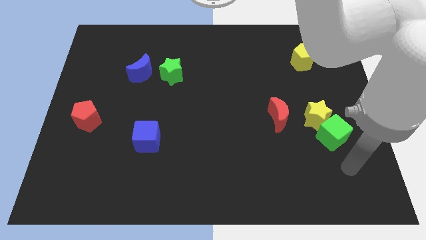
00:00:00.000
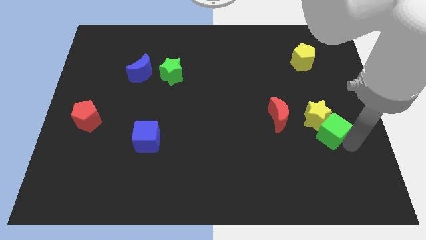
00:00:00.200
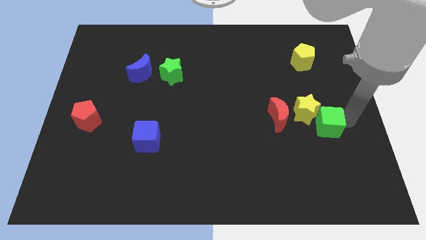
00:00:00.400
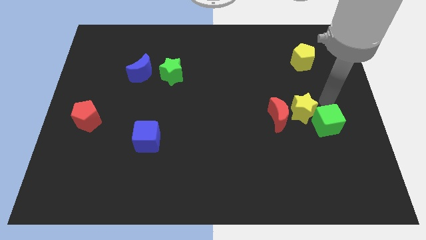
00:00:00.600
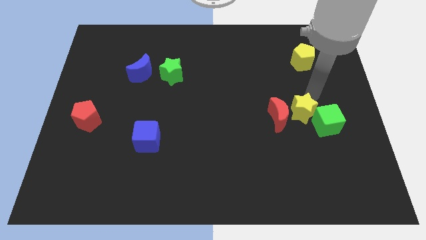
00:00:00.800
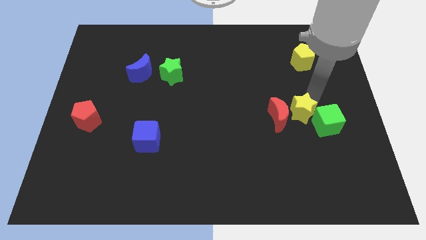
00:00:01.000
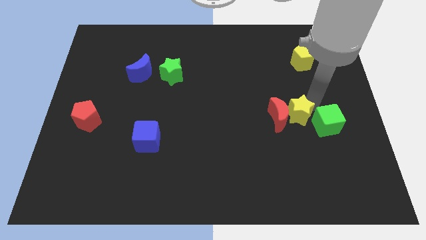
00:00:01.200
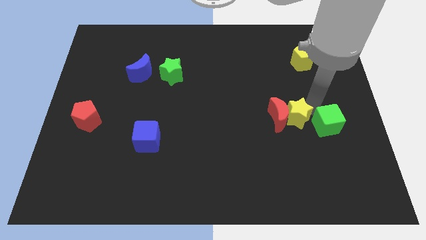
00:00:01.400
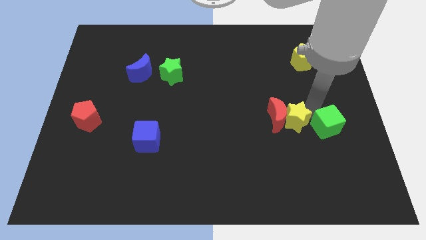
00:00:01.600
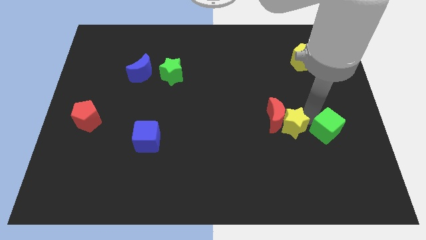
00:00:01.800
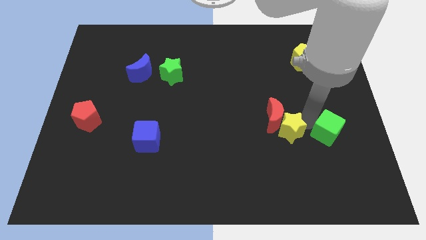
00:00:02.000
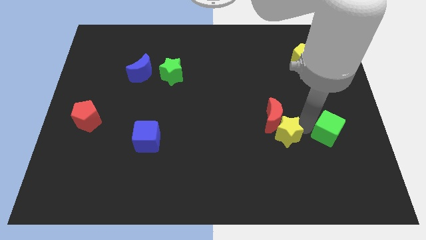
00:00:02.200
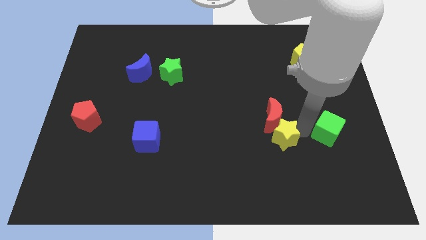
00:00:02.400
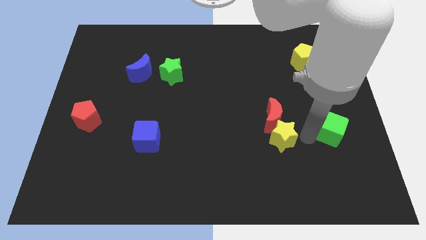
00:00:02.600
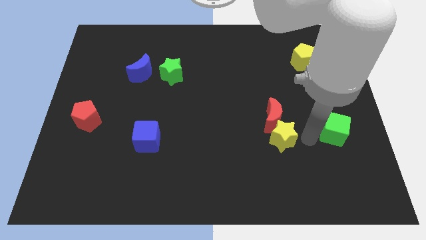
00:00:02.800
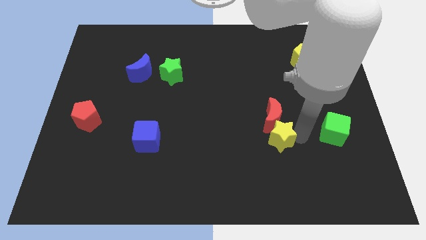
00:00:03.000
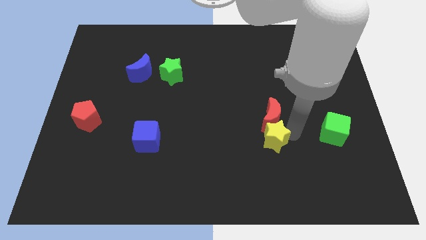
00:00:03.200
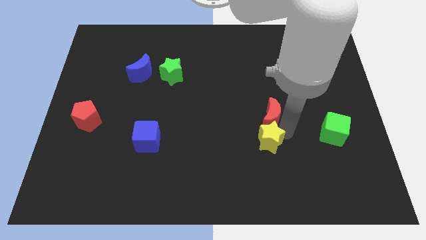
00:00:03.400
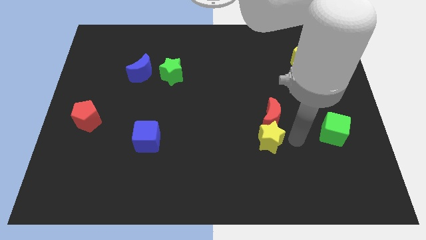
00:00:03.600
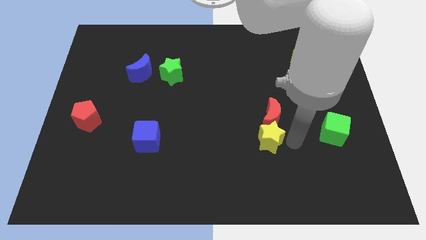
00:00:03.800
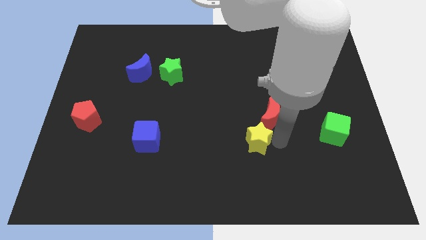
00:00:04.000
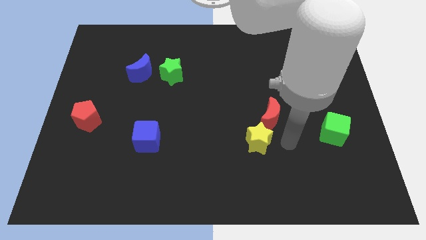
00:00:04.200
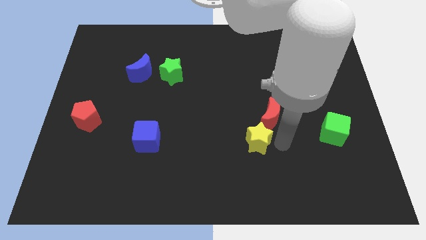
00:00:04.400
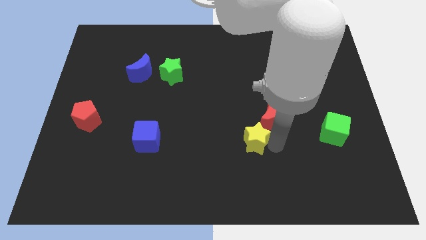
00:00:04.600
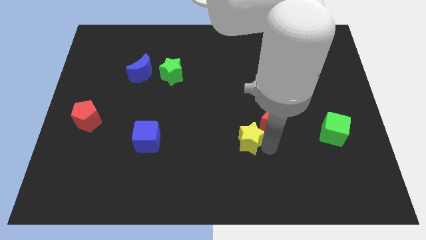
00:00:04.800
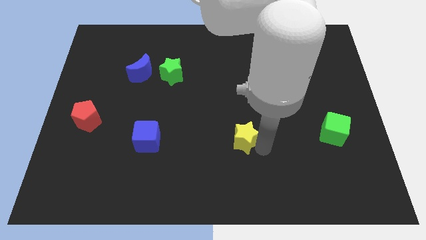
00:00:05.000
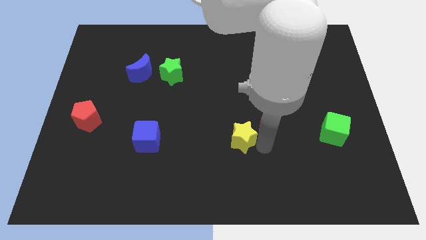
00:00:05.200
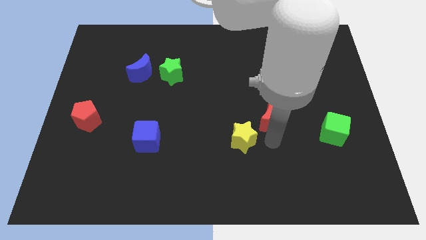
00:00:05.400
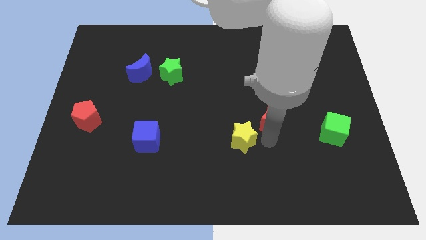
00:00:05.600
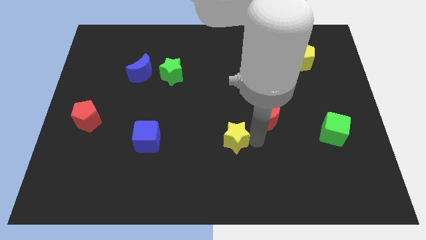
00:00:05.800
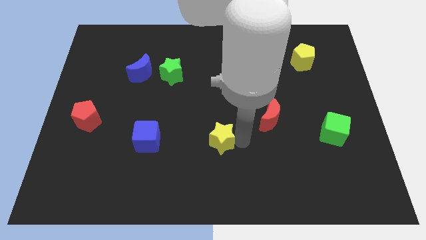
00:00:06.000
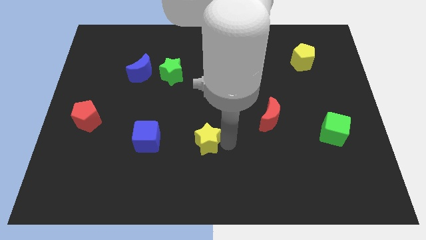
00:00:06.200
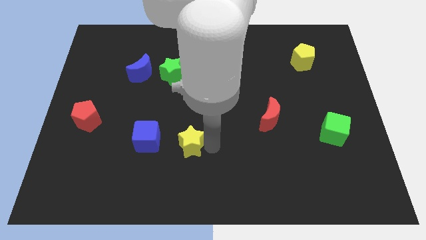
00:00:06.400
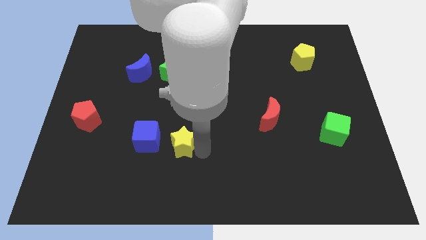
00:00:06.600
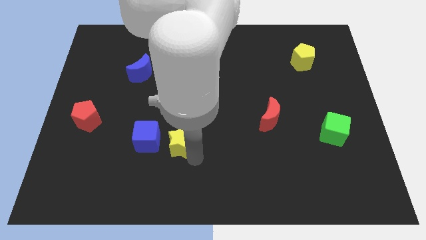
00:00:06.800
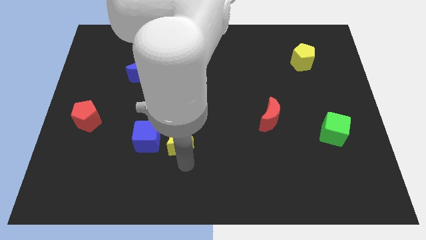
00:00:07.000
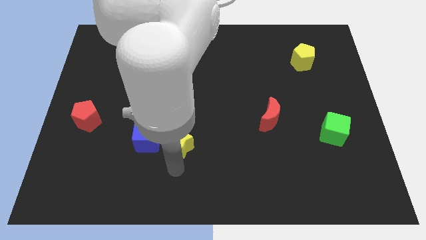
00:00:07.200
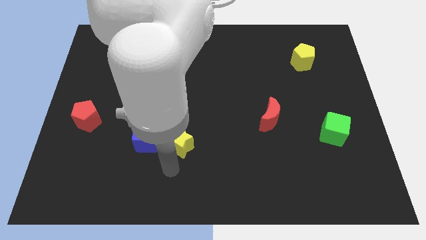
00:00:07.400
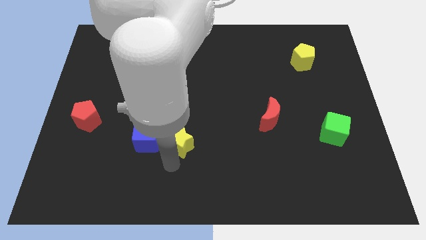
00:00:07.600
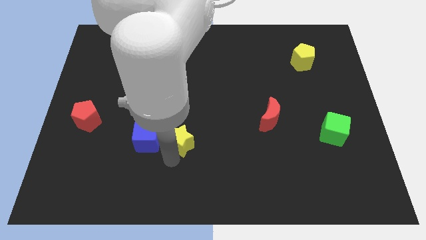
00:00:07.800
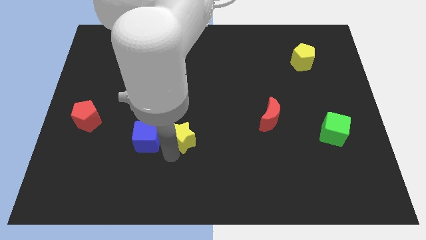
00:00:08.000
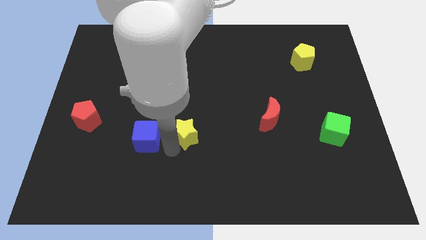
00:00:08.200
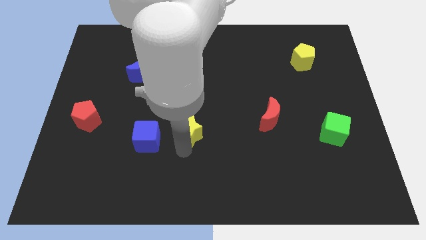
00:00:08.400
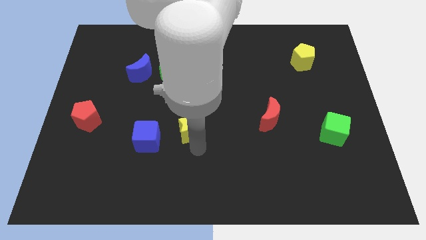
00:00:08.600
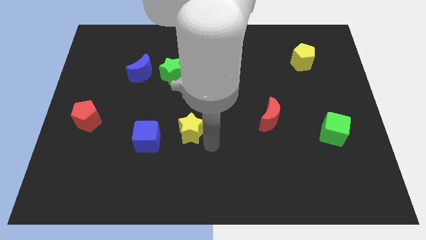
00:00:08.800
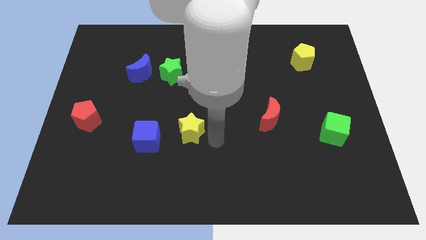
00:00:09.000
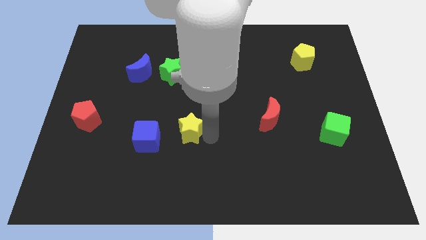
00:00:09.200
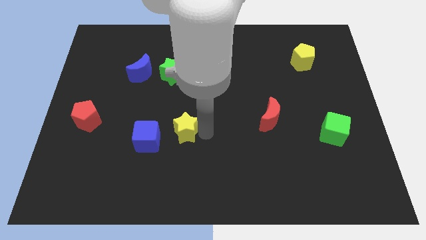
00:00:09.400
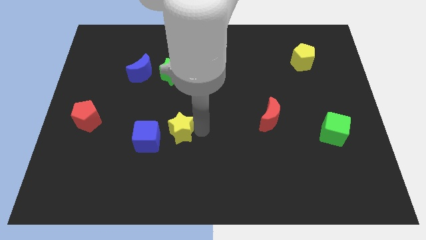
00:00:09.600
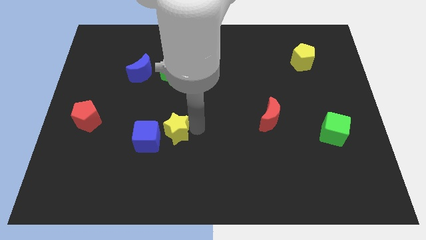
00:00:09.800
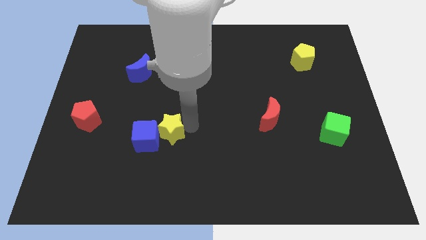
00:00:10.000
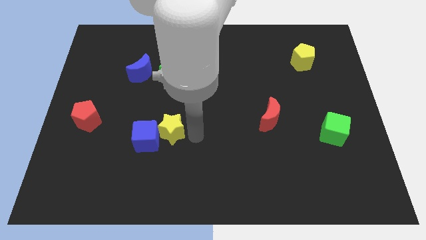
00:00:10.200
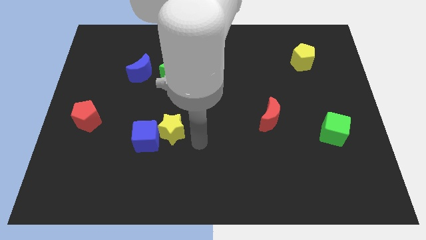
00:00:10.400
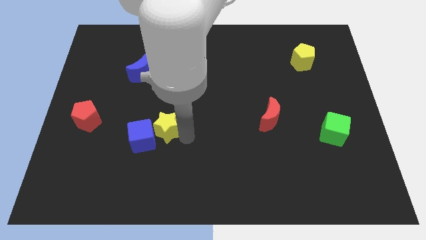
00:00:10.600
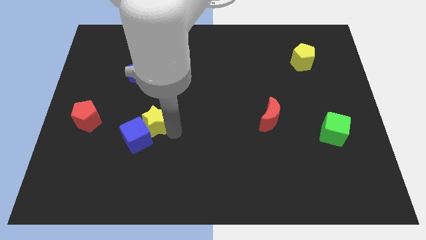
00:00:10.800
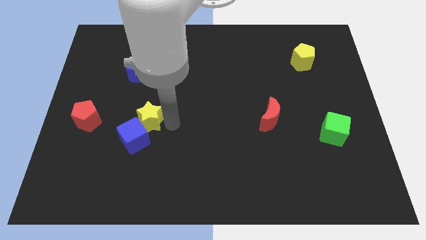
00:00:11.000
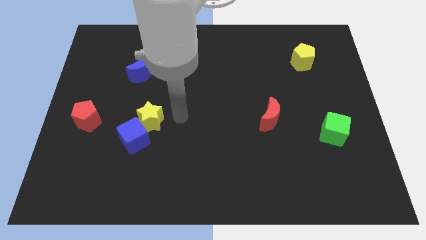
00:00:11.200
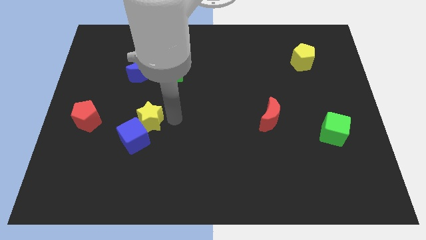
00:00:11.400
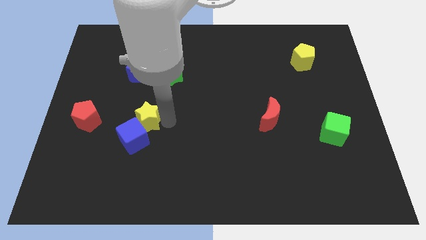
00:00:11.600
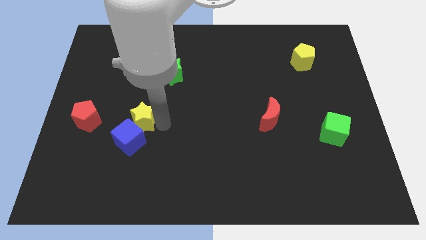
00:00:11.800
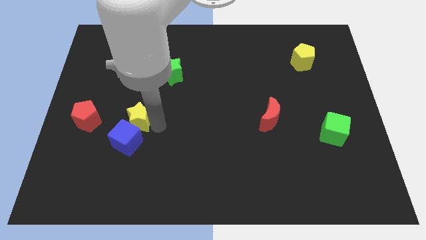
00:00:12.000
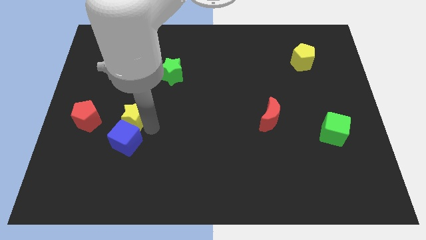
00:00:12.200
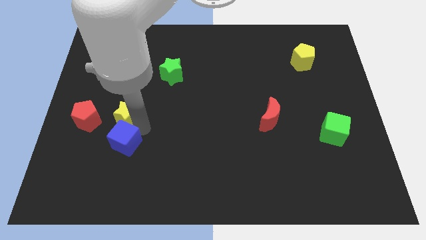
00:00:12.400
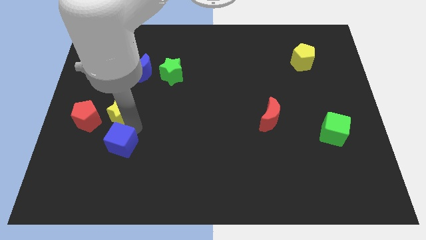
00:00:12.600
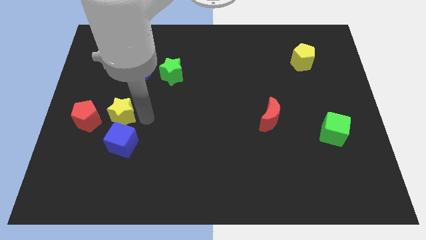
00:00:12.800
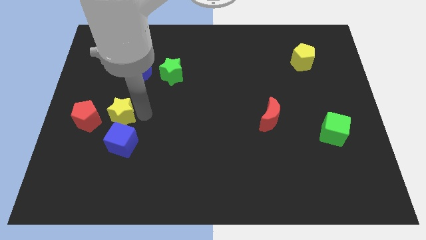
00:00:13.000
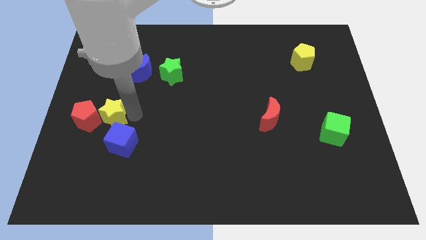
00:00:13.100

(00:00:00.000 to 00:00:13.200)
move the yellow star close to the red pentagon

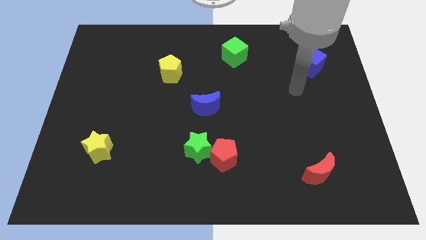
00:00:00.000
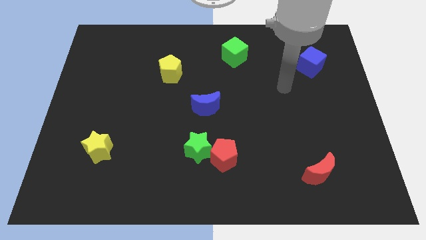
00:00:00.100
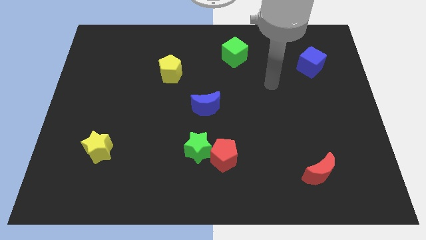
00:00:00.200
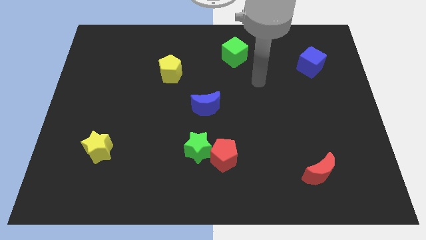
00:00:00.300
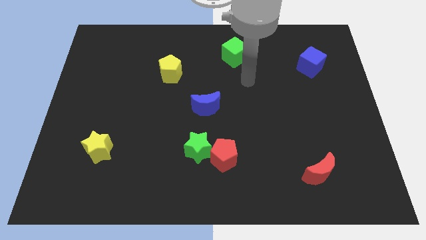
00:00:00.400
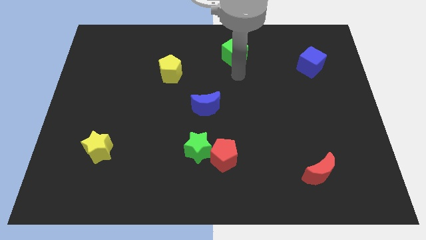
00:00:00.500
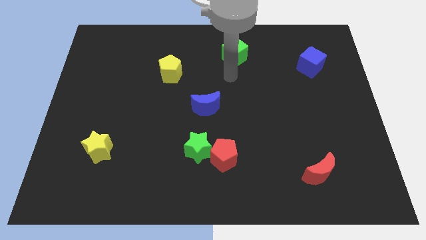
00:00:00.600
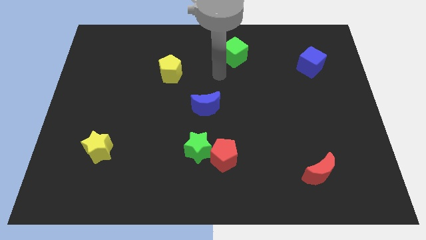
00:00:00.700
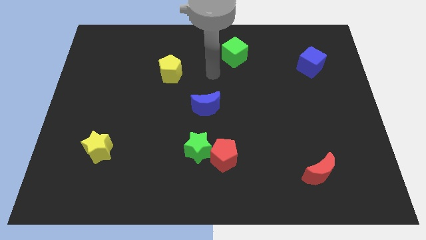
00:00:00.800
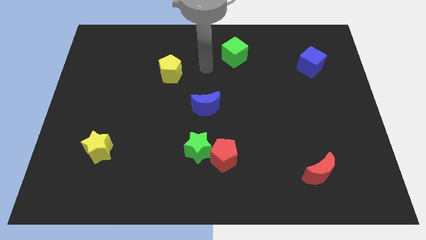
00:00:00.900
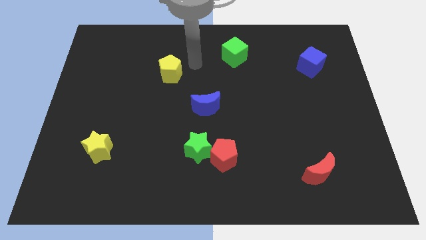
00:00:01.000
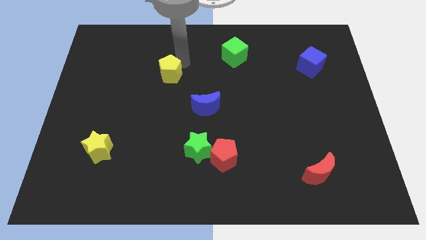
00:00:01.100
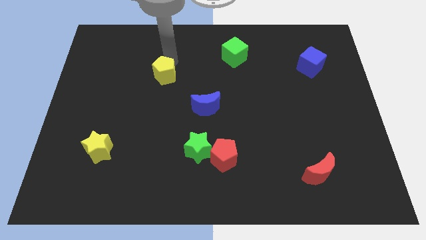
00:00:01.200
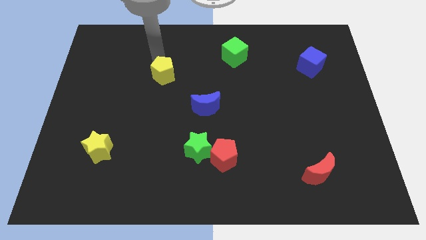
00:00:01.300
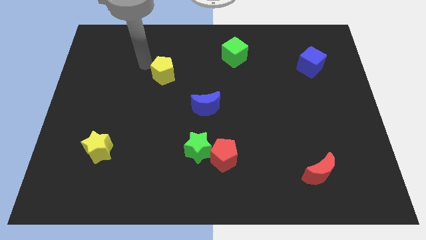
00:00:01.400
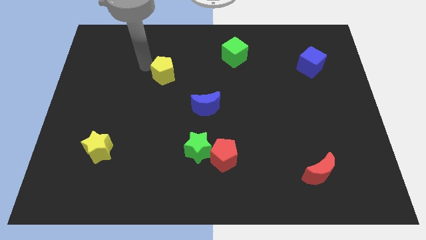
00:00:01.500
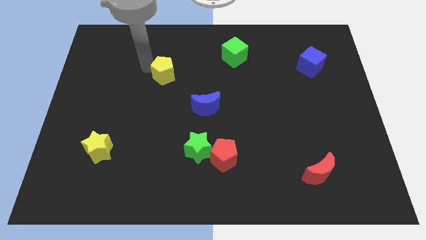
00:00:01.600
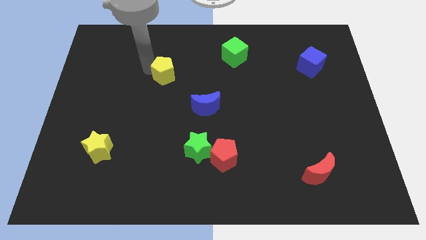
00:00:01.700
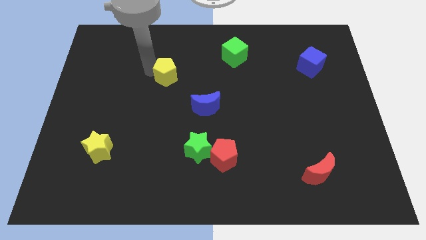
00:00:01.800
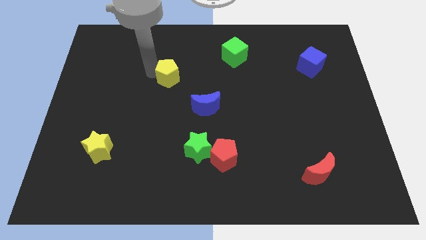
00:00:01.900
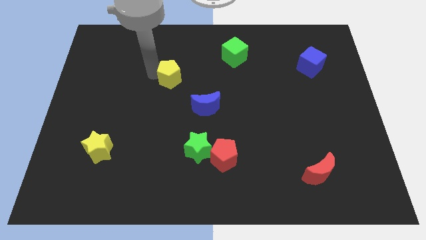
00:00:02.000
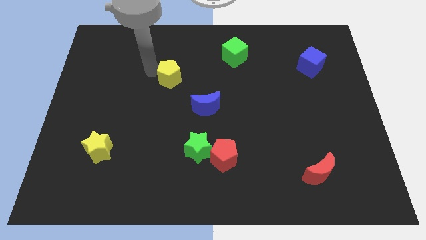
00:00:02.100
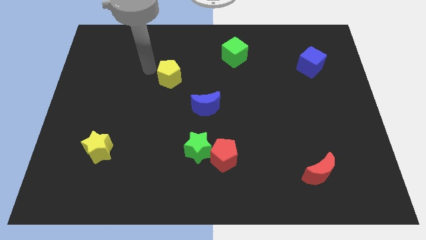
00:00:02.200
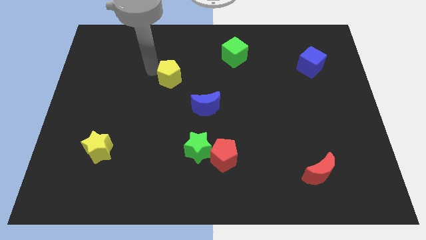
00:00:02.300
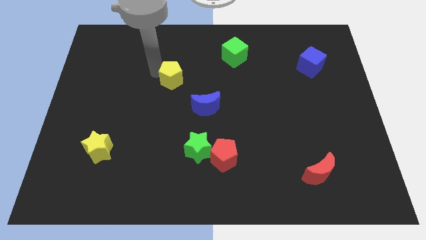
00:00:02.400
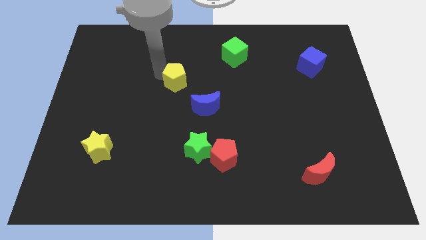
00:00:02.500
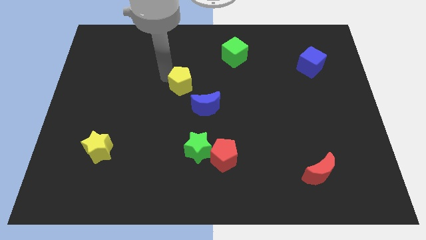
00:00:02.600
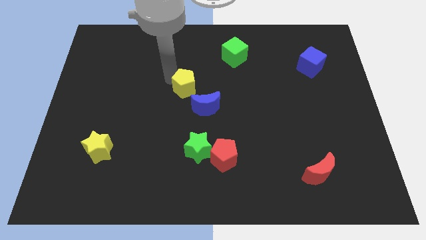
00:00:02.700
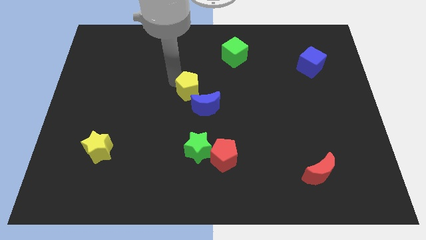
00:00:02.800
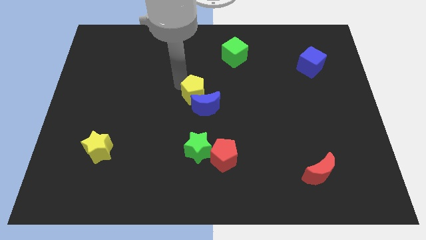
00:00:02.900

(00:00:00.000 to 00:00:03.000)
move the yellow pentagon next to the blue moon
